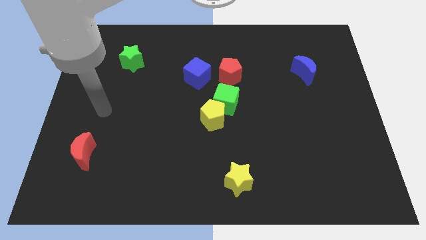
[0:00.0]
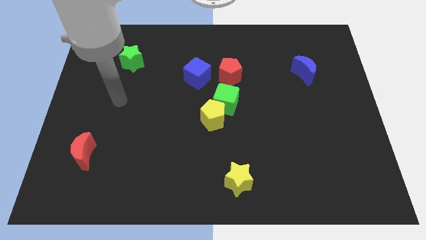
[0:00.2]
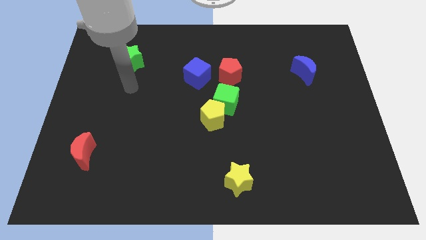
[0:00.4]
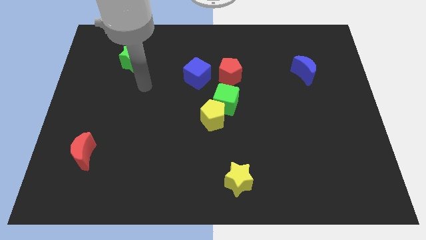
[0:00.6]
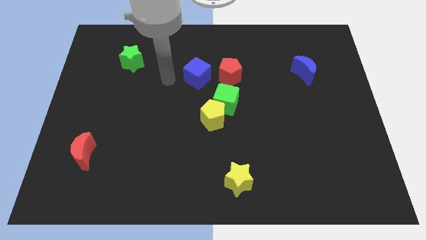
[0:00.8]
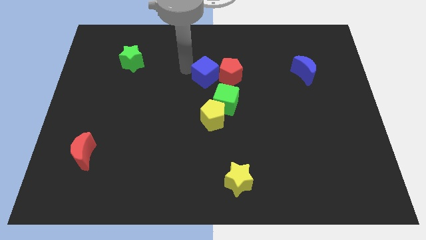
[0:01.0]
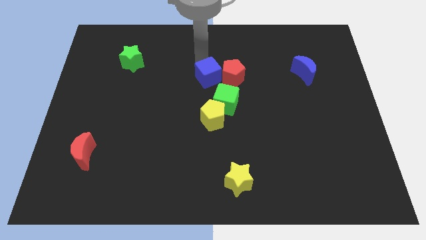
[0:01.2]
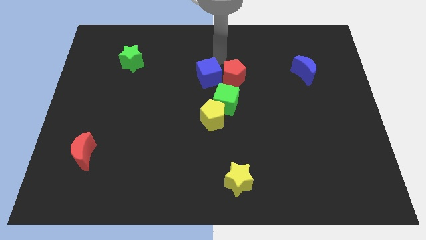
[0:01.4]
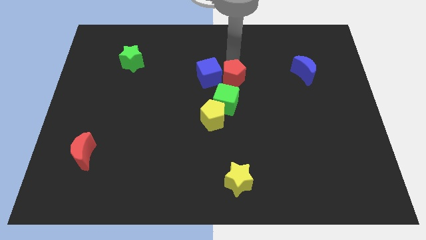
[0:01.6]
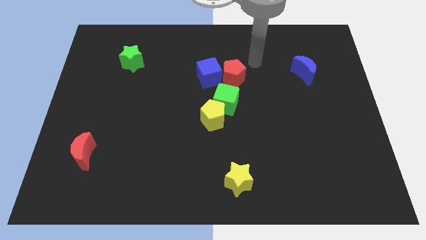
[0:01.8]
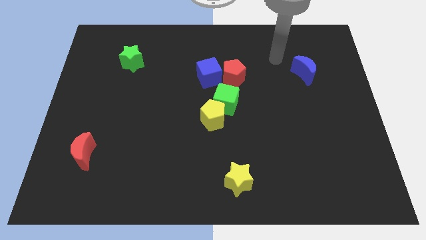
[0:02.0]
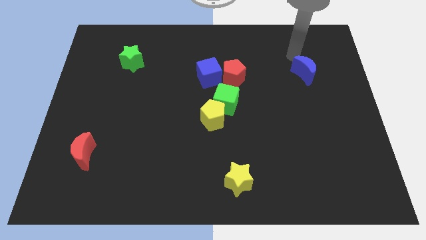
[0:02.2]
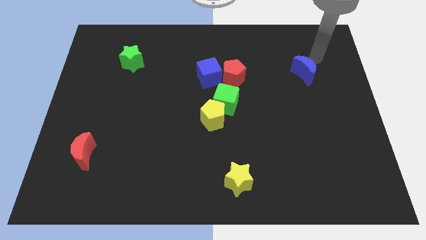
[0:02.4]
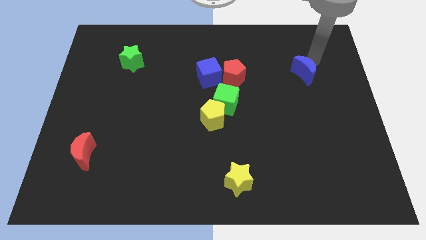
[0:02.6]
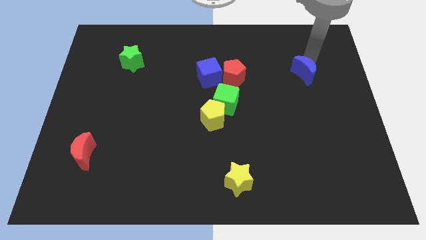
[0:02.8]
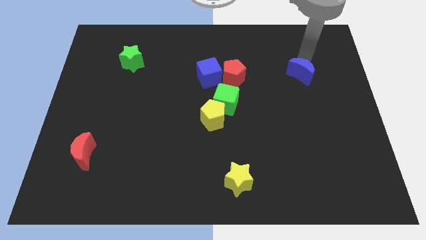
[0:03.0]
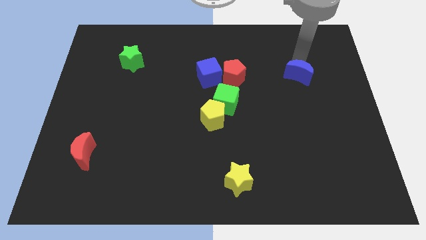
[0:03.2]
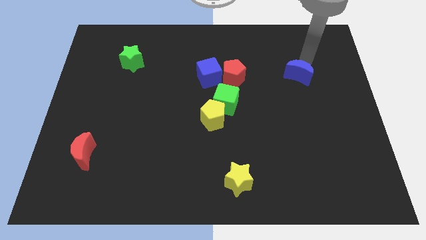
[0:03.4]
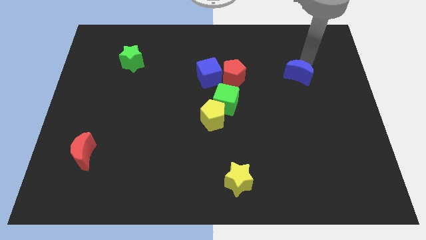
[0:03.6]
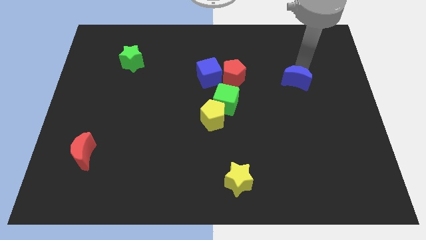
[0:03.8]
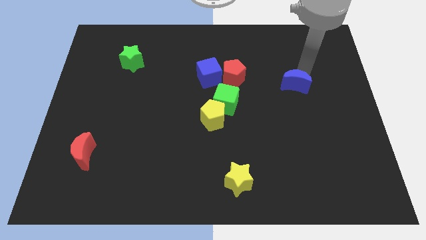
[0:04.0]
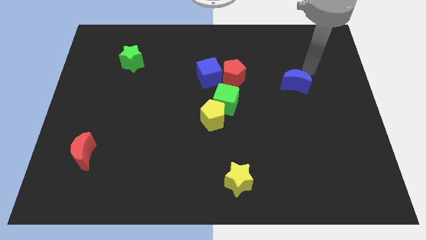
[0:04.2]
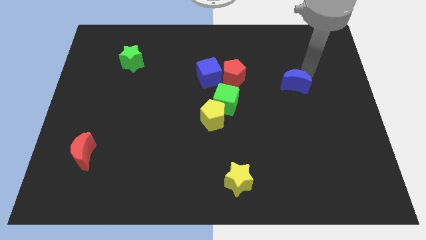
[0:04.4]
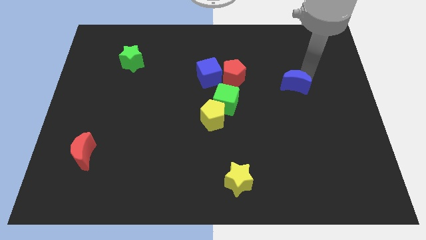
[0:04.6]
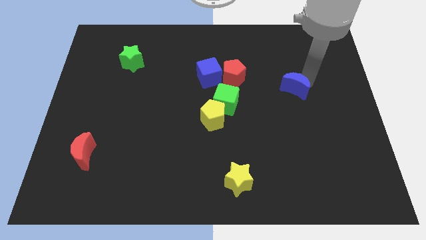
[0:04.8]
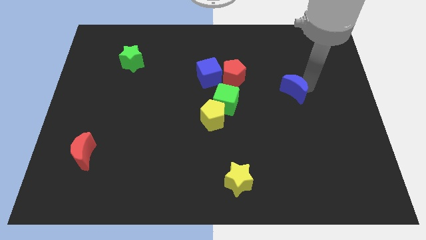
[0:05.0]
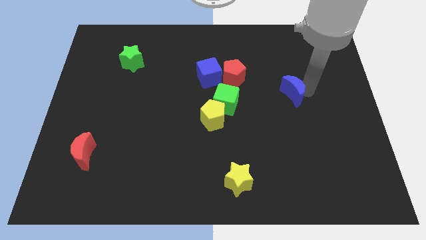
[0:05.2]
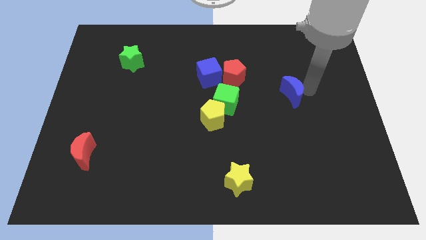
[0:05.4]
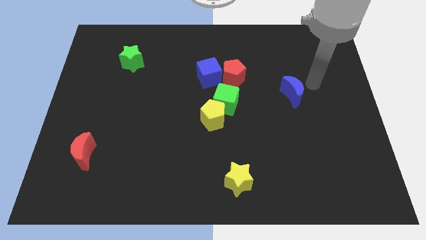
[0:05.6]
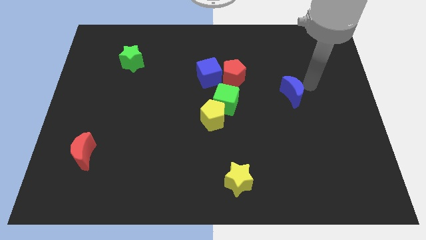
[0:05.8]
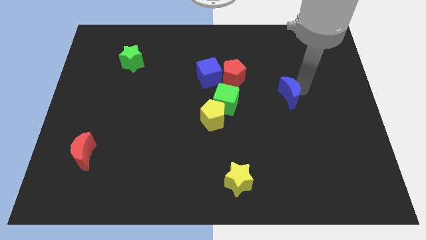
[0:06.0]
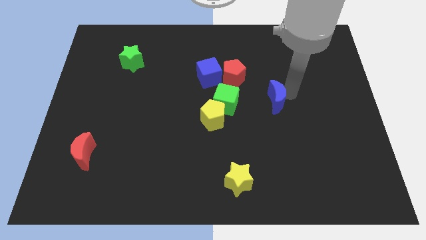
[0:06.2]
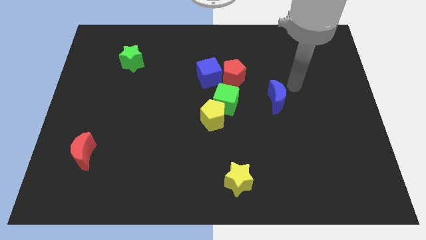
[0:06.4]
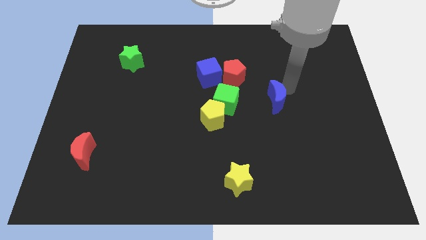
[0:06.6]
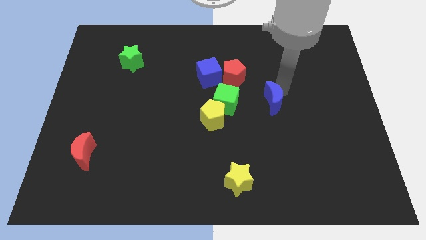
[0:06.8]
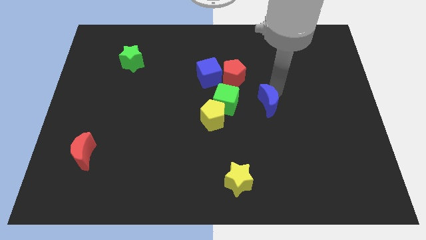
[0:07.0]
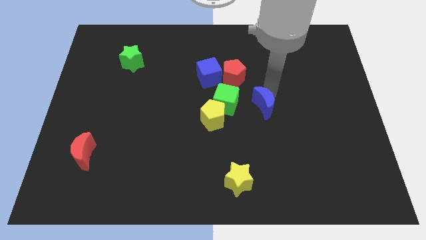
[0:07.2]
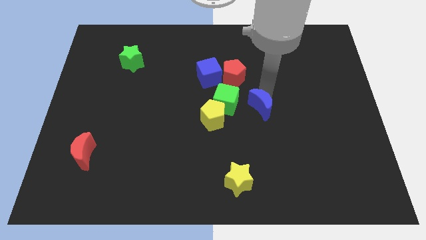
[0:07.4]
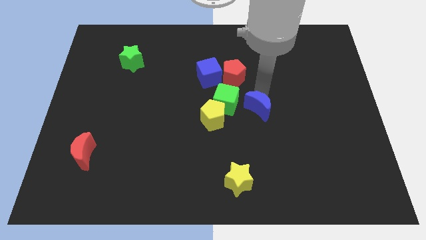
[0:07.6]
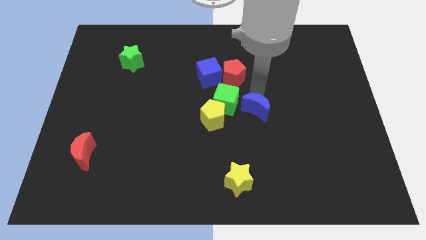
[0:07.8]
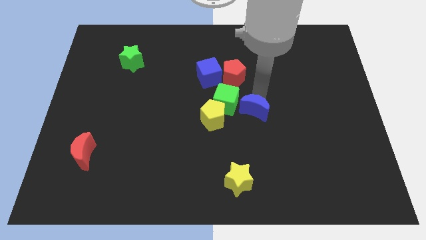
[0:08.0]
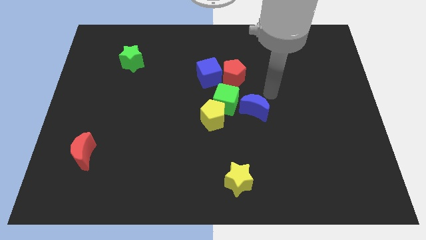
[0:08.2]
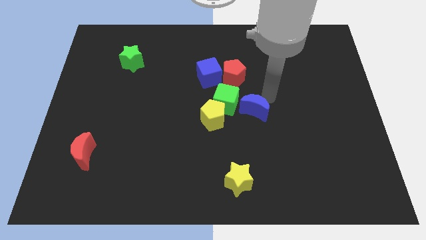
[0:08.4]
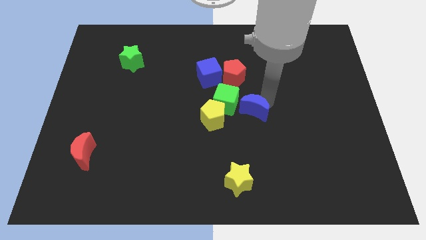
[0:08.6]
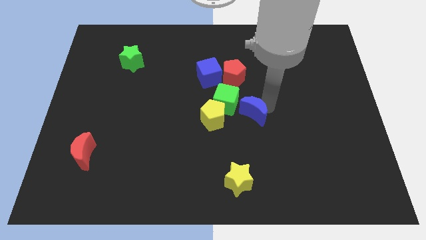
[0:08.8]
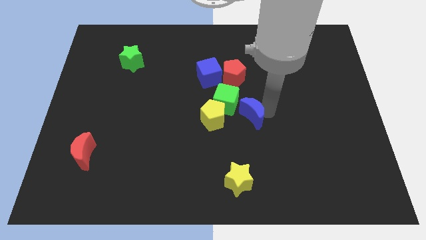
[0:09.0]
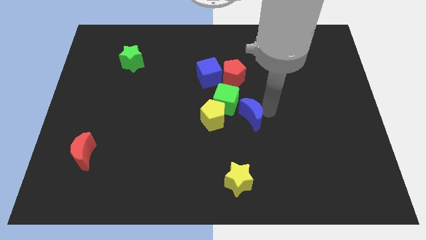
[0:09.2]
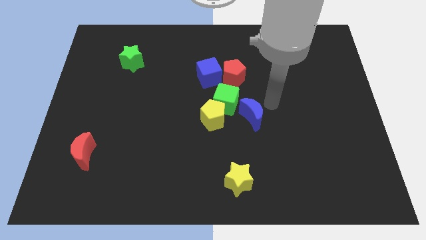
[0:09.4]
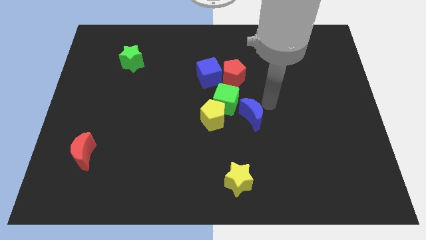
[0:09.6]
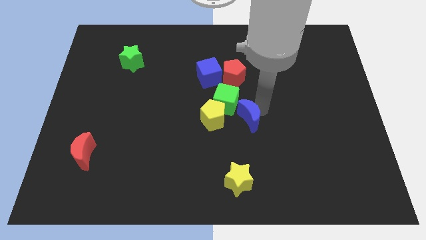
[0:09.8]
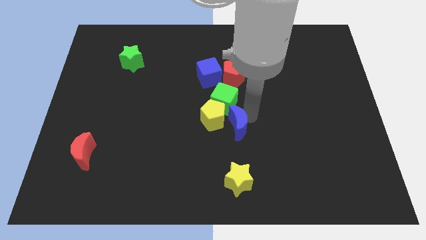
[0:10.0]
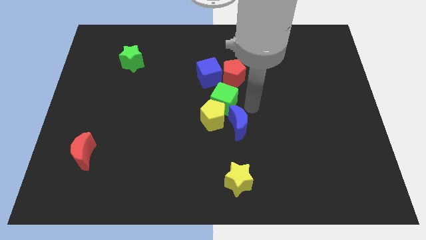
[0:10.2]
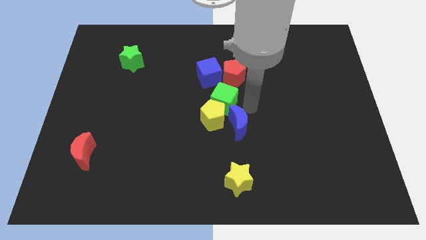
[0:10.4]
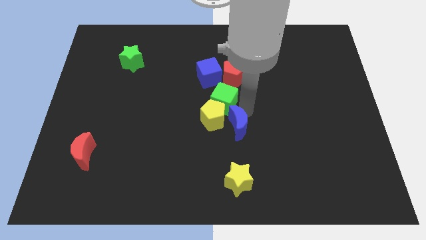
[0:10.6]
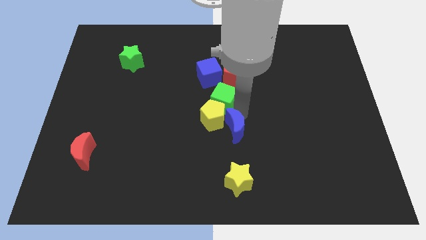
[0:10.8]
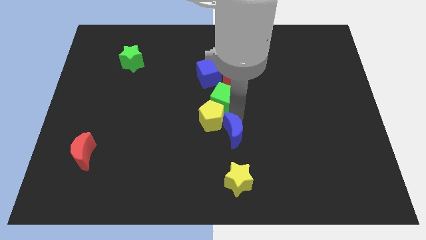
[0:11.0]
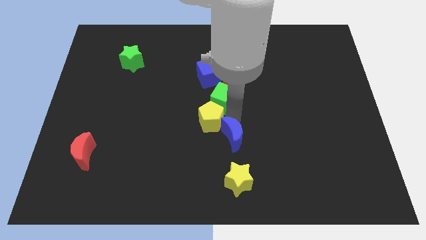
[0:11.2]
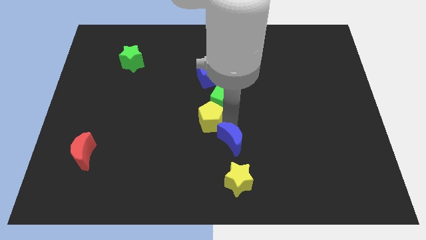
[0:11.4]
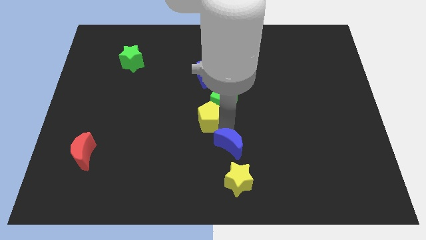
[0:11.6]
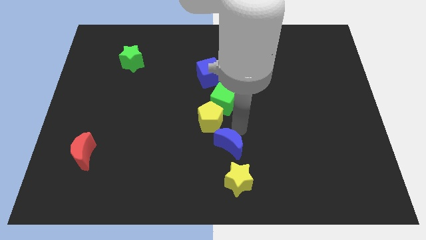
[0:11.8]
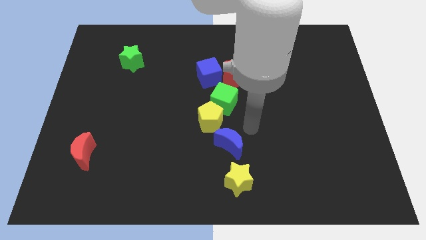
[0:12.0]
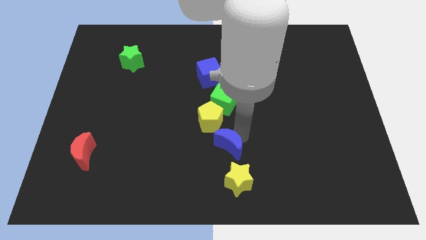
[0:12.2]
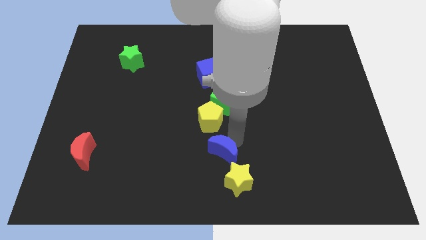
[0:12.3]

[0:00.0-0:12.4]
put the blue moon to the top left side of the yellow star

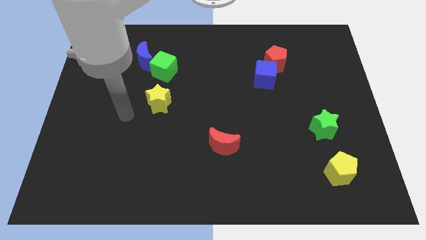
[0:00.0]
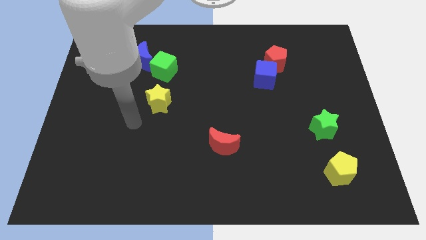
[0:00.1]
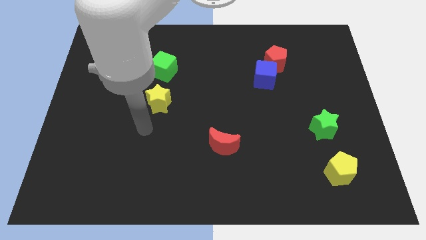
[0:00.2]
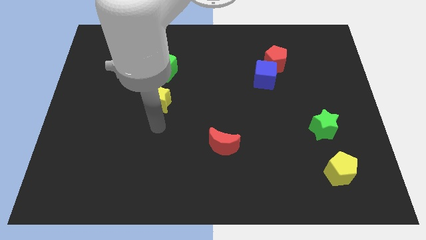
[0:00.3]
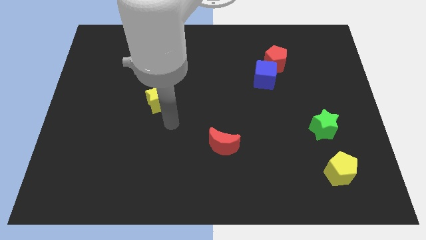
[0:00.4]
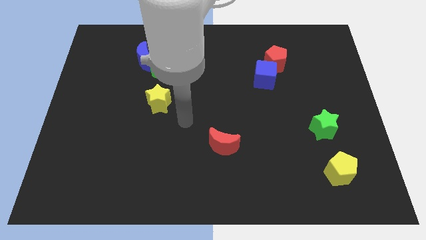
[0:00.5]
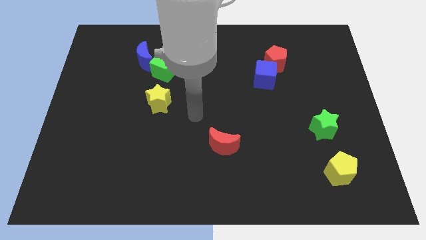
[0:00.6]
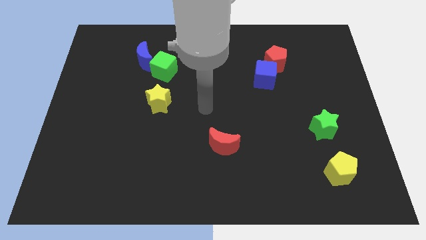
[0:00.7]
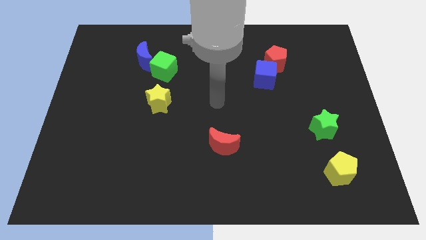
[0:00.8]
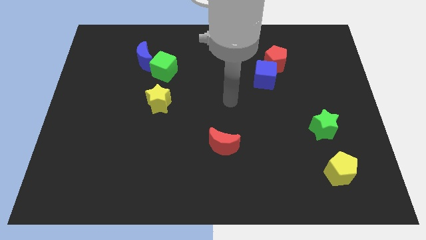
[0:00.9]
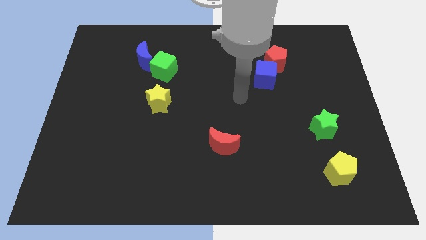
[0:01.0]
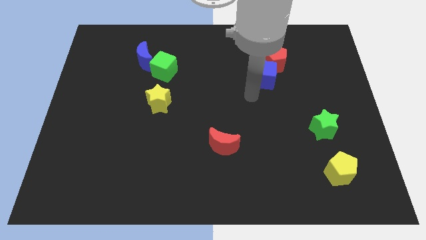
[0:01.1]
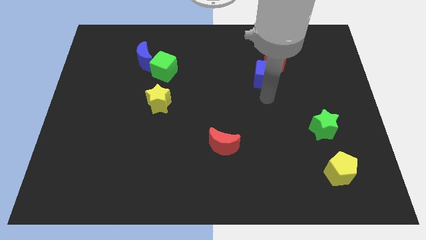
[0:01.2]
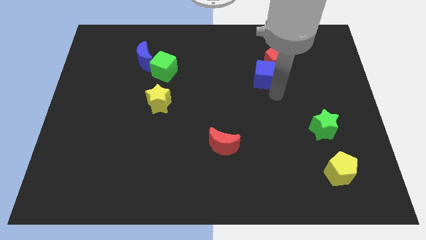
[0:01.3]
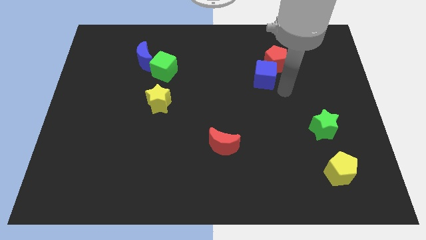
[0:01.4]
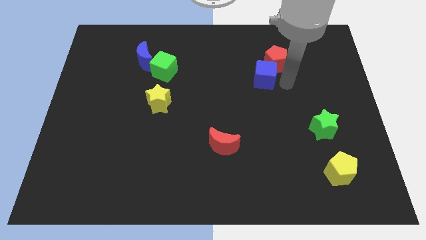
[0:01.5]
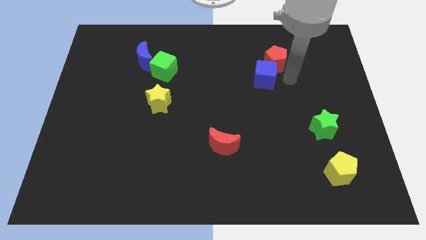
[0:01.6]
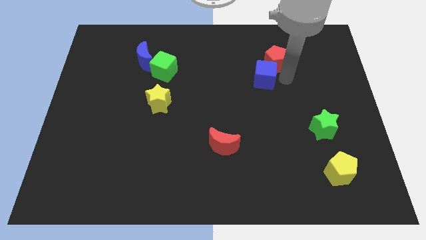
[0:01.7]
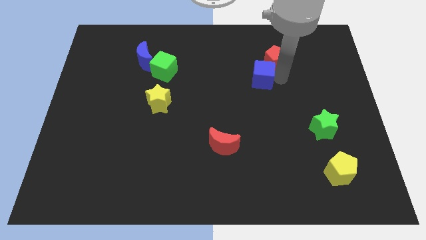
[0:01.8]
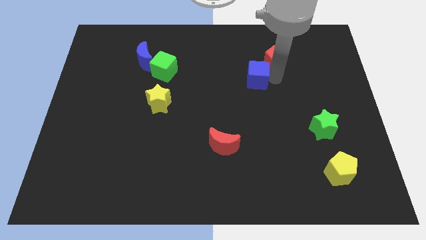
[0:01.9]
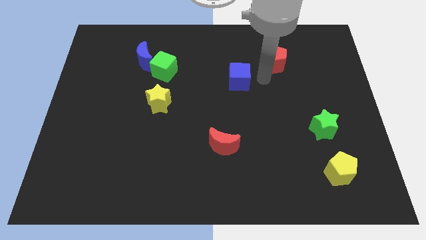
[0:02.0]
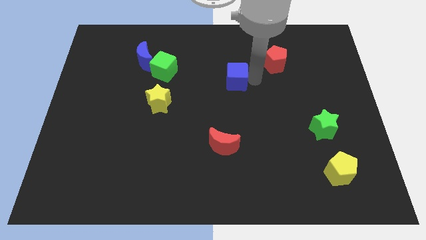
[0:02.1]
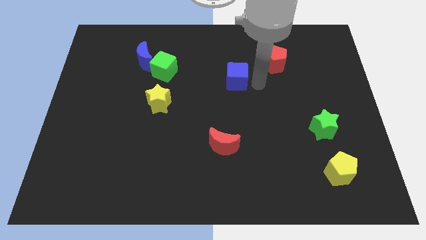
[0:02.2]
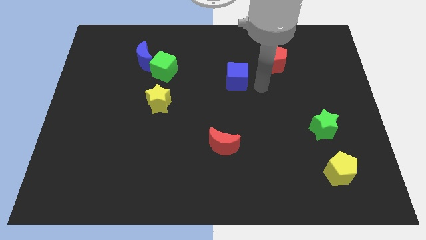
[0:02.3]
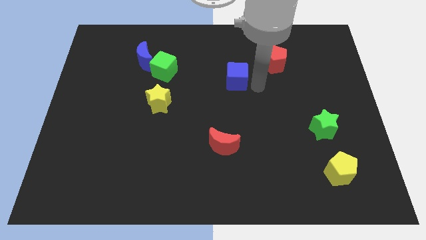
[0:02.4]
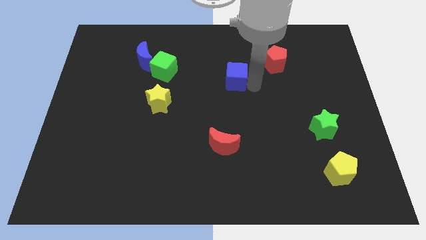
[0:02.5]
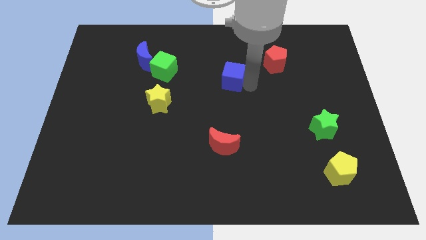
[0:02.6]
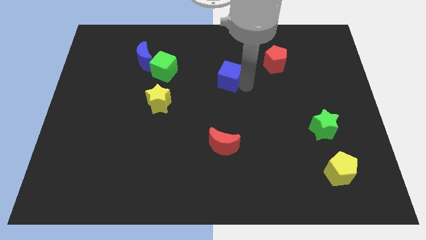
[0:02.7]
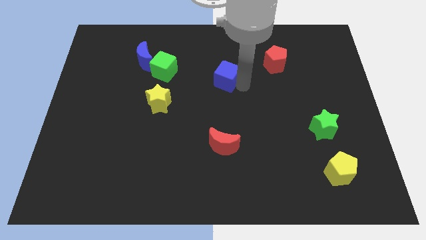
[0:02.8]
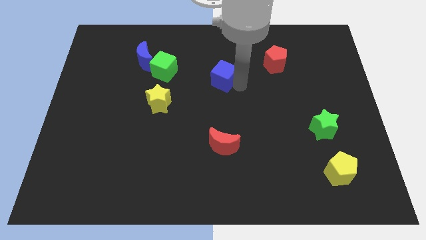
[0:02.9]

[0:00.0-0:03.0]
slide the blue cube right of the green cube
